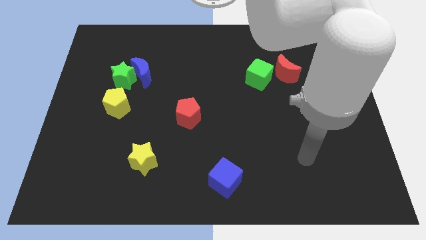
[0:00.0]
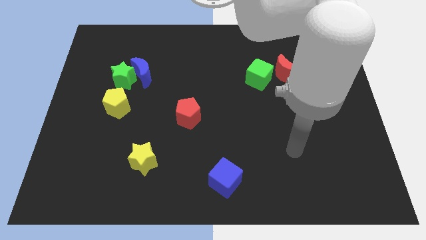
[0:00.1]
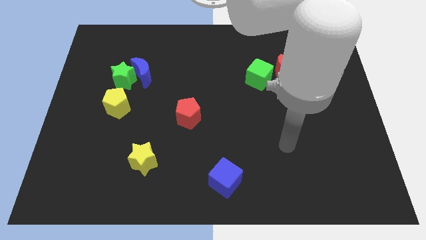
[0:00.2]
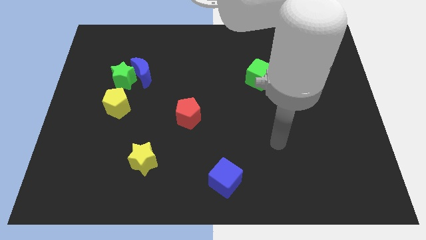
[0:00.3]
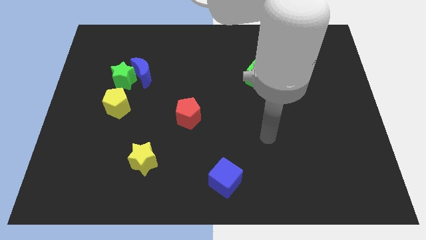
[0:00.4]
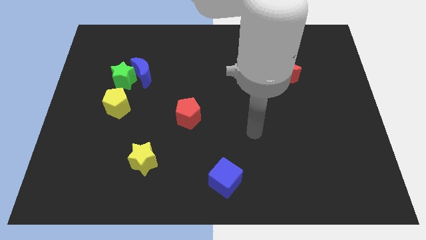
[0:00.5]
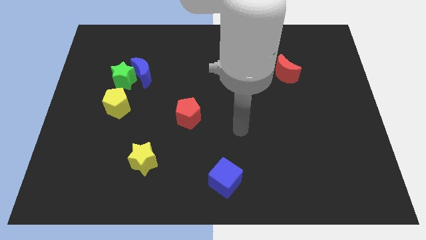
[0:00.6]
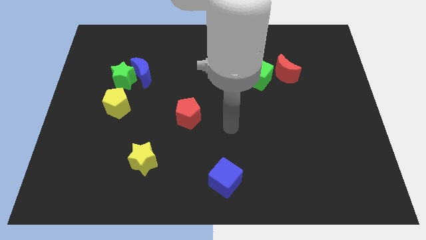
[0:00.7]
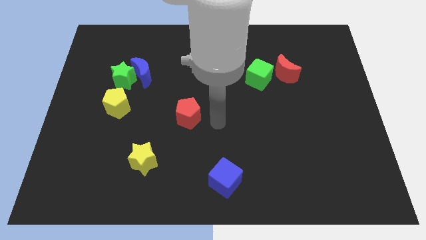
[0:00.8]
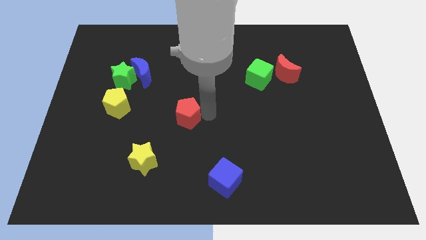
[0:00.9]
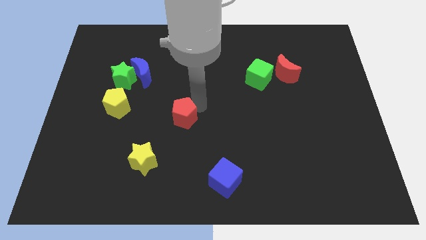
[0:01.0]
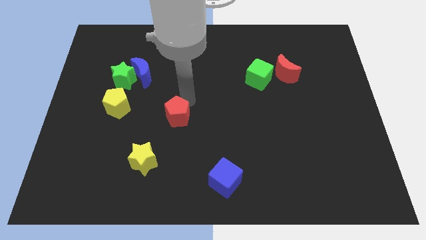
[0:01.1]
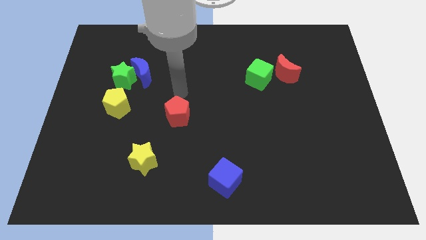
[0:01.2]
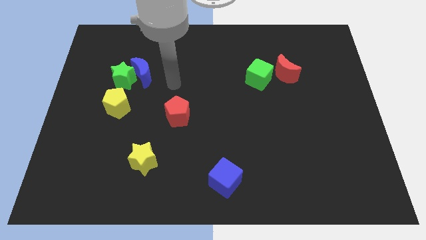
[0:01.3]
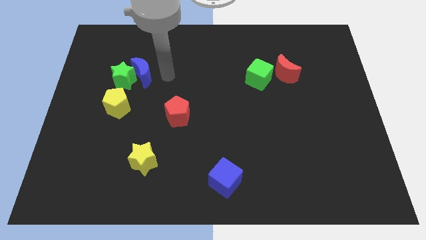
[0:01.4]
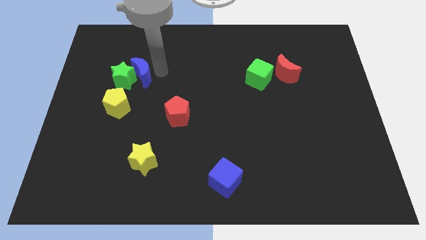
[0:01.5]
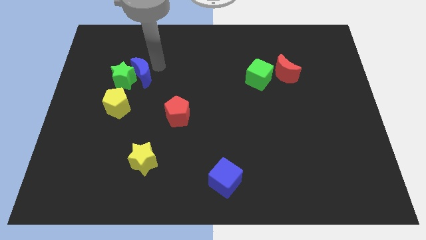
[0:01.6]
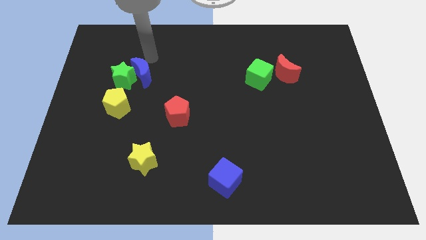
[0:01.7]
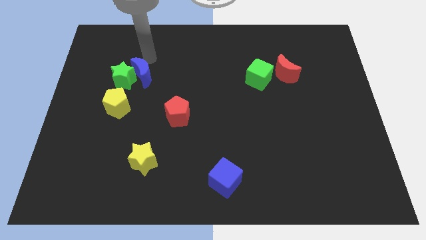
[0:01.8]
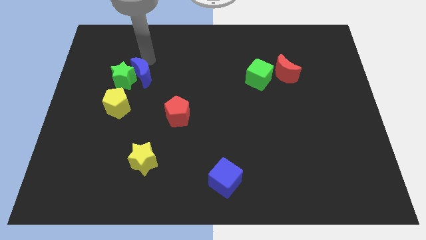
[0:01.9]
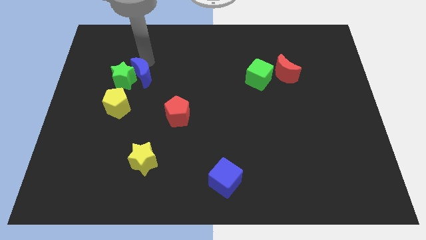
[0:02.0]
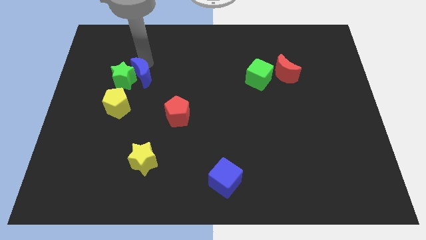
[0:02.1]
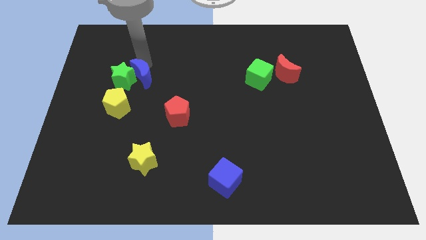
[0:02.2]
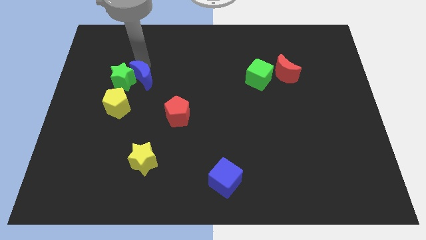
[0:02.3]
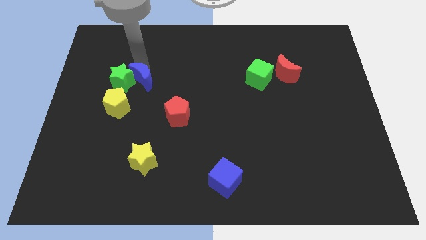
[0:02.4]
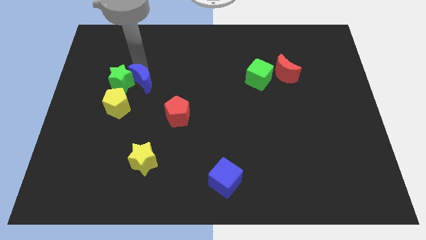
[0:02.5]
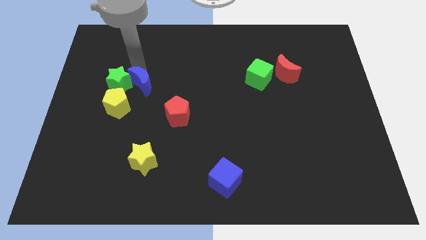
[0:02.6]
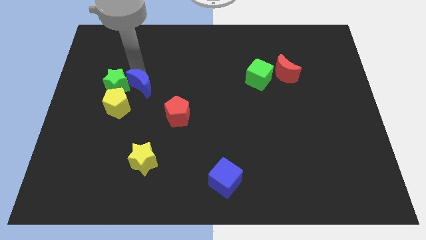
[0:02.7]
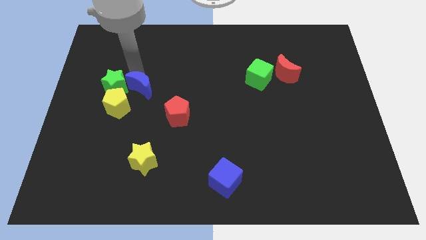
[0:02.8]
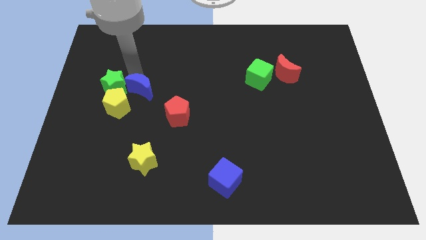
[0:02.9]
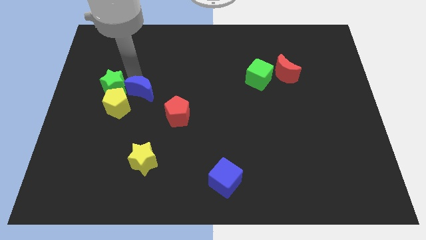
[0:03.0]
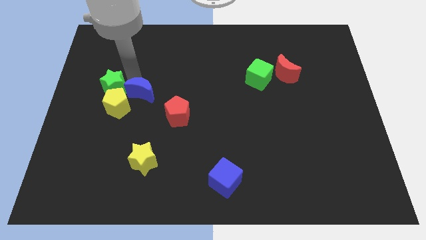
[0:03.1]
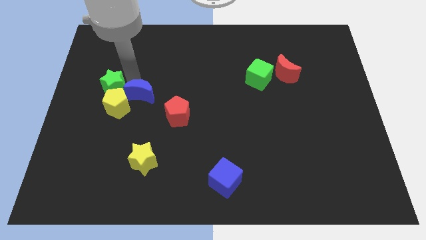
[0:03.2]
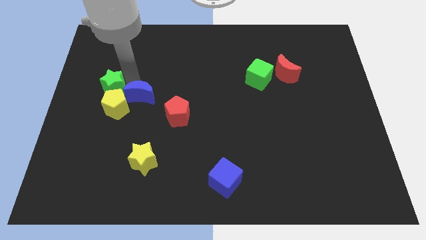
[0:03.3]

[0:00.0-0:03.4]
slide the blue moon downwards a little bit

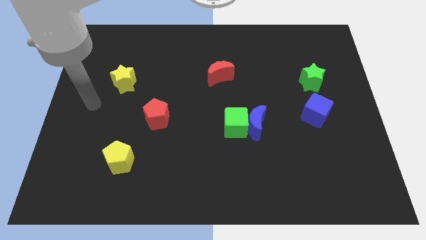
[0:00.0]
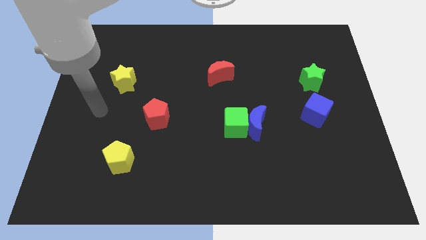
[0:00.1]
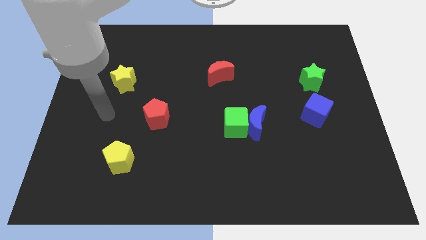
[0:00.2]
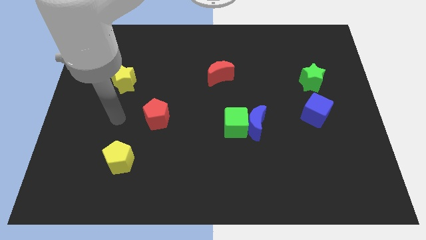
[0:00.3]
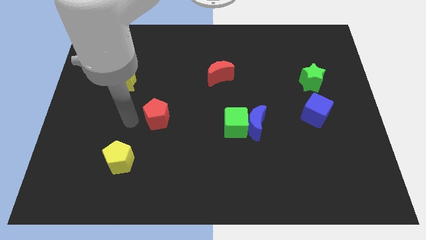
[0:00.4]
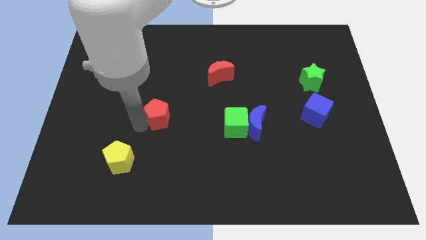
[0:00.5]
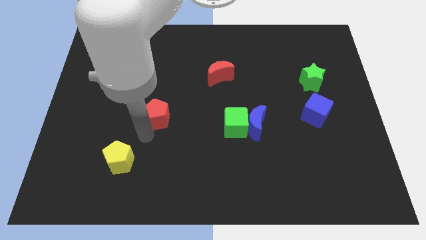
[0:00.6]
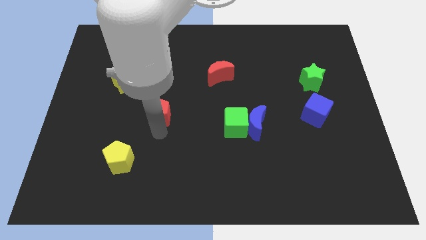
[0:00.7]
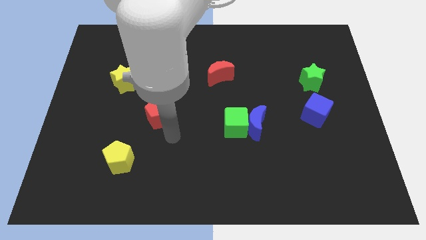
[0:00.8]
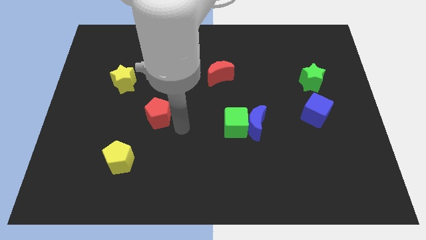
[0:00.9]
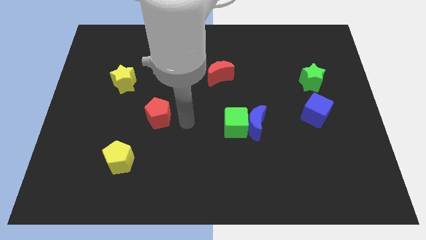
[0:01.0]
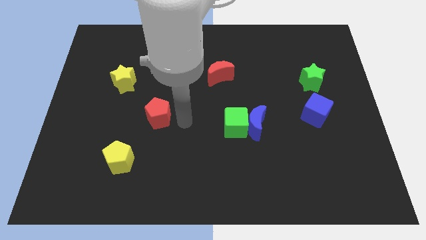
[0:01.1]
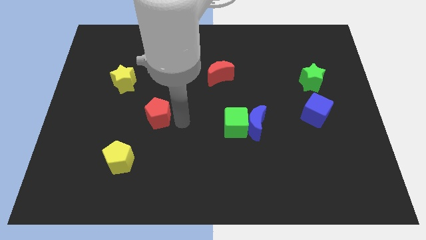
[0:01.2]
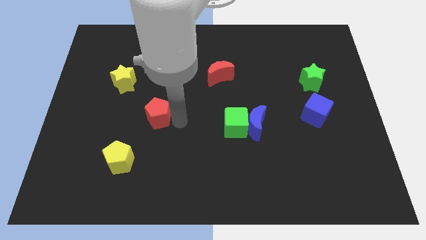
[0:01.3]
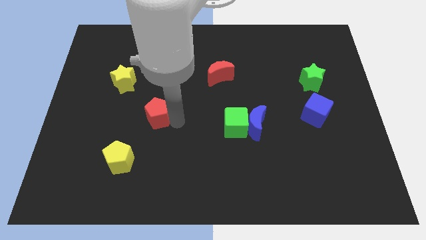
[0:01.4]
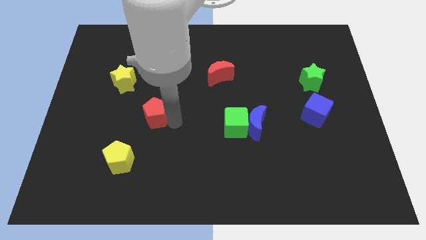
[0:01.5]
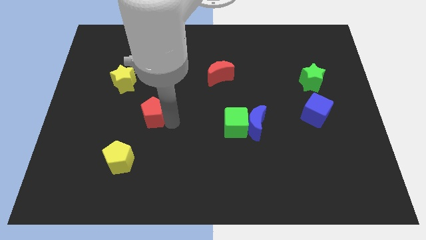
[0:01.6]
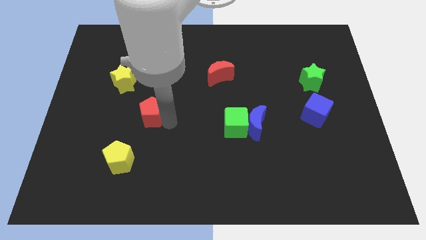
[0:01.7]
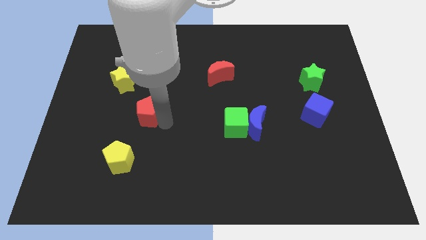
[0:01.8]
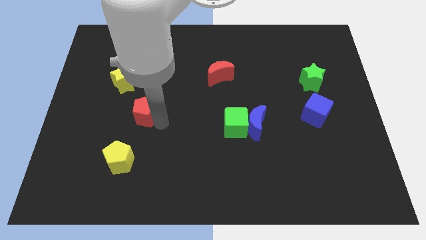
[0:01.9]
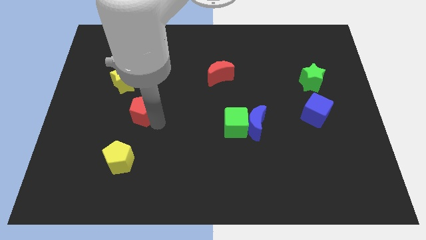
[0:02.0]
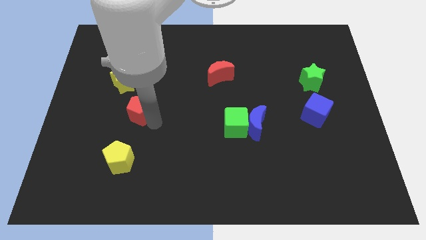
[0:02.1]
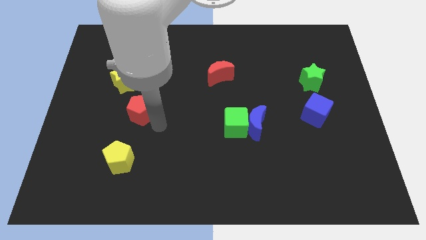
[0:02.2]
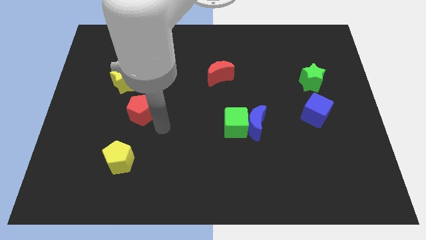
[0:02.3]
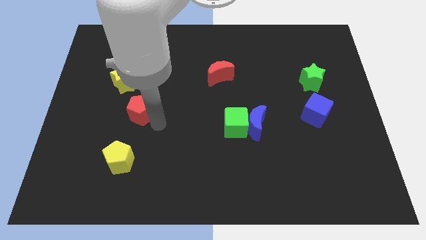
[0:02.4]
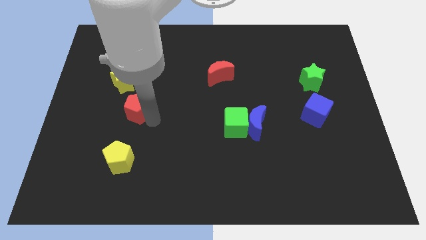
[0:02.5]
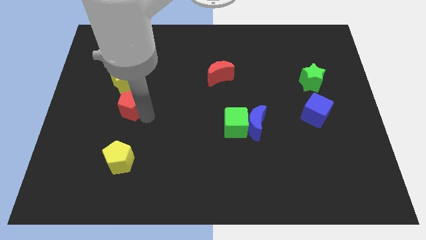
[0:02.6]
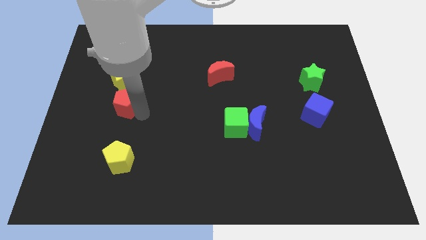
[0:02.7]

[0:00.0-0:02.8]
slightly slide the red pentagon up and left diagonally

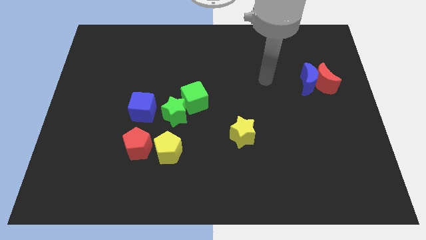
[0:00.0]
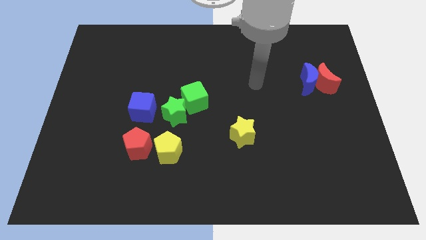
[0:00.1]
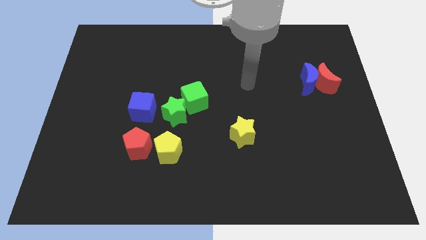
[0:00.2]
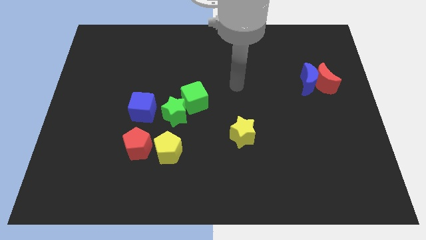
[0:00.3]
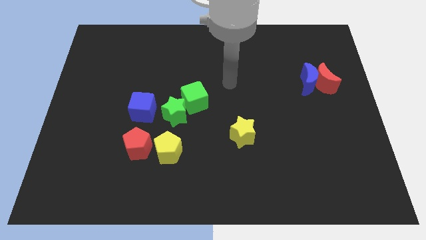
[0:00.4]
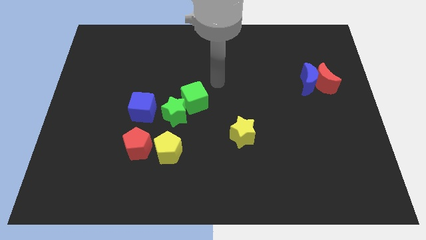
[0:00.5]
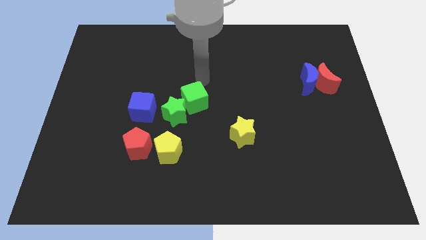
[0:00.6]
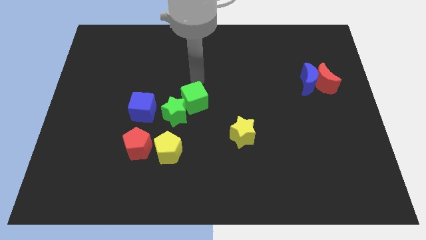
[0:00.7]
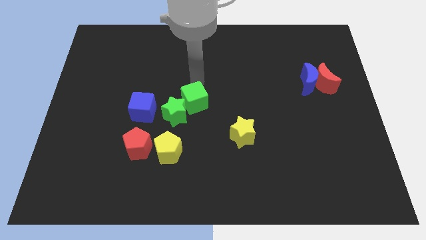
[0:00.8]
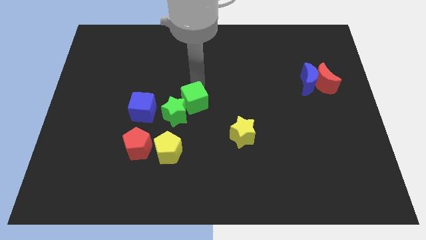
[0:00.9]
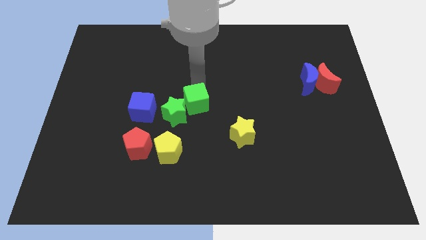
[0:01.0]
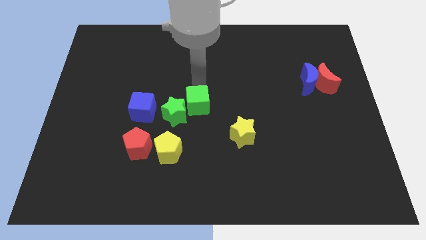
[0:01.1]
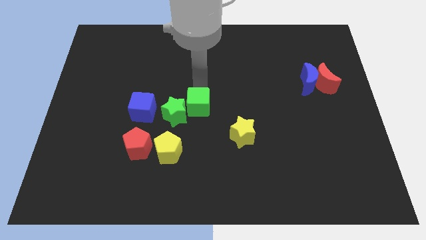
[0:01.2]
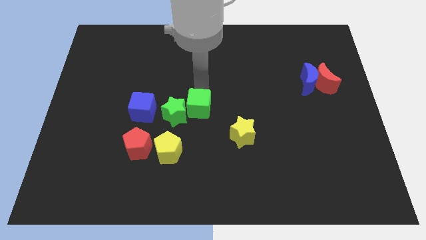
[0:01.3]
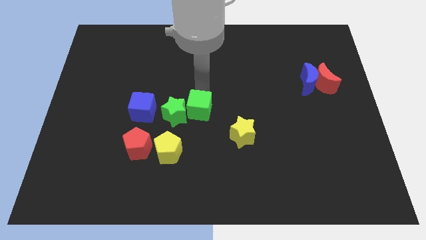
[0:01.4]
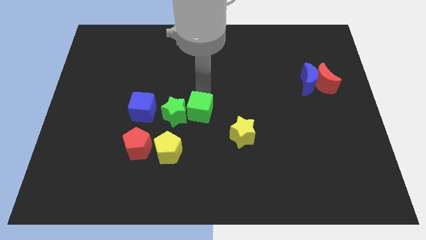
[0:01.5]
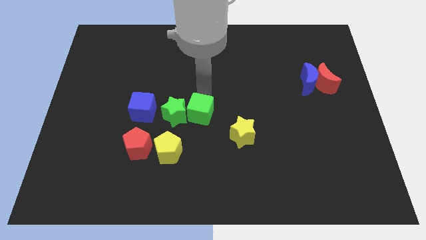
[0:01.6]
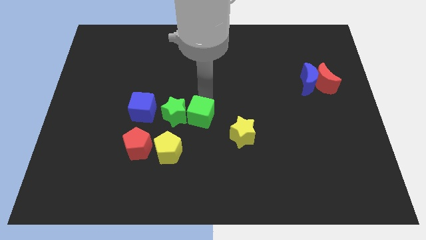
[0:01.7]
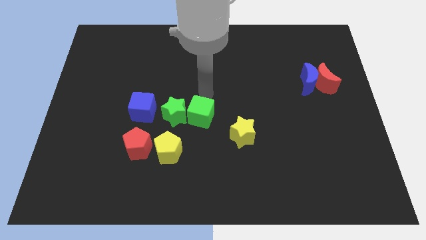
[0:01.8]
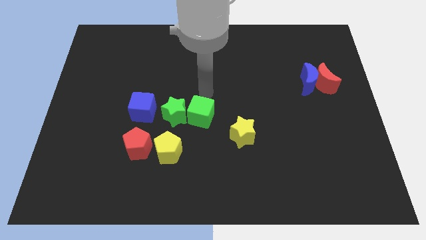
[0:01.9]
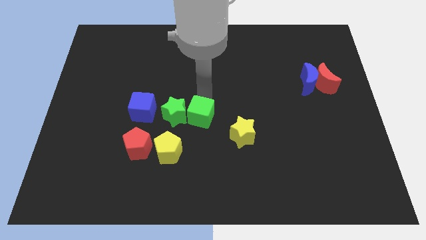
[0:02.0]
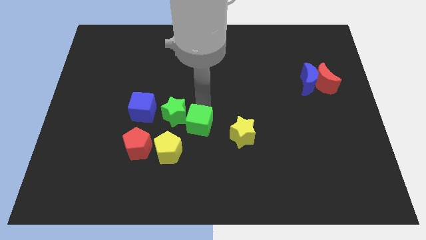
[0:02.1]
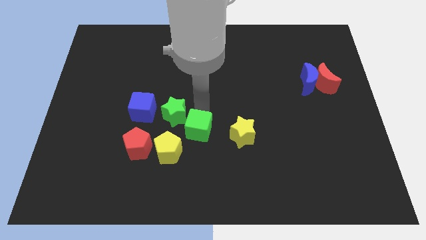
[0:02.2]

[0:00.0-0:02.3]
slightly slide the green cube downwards
